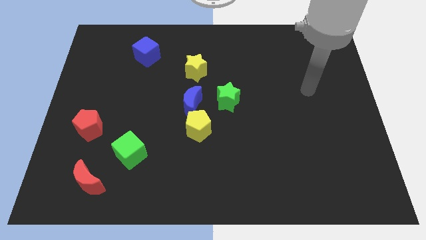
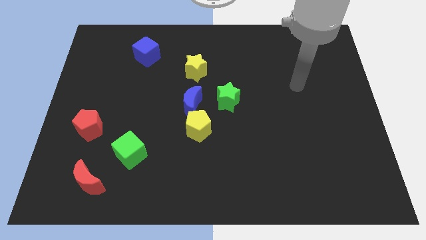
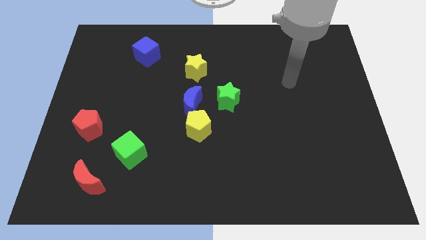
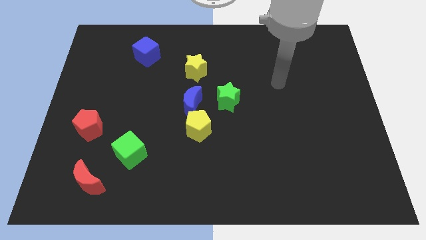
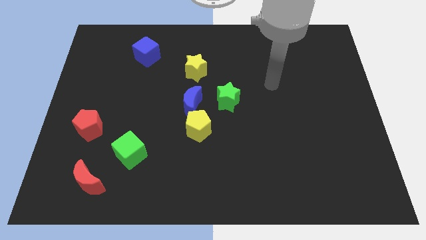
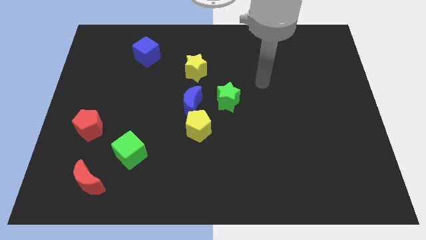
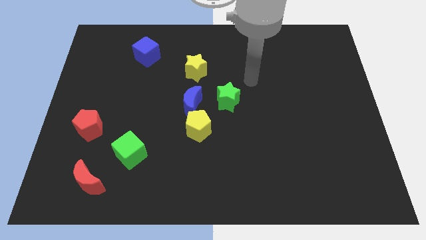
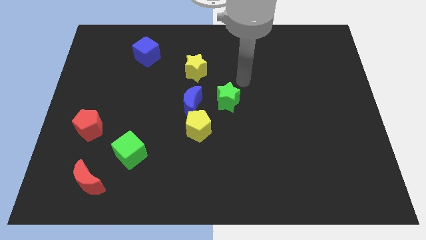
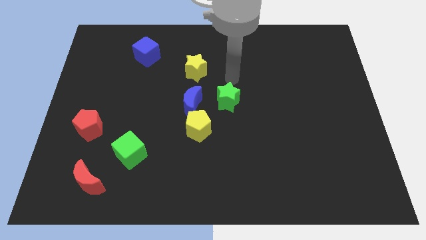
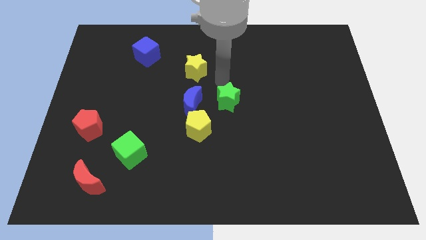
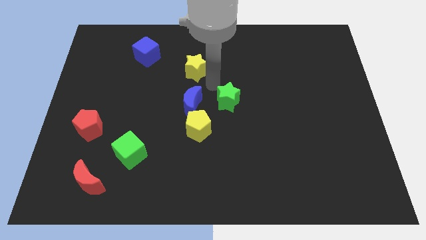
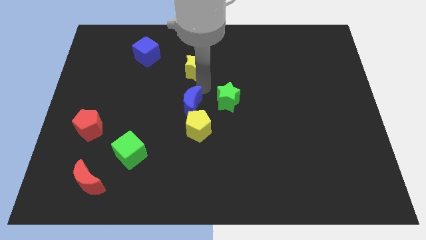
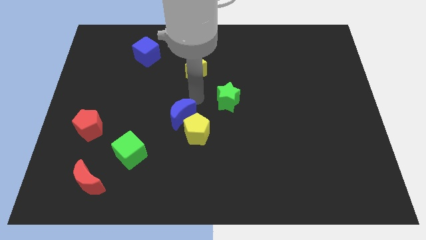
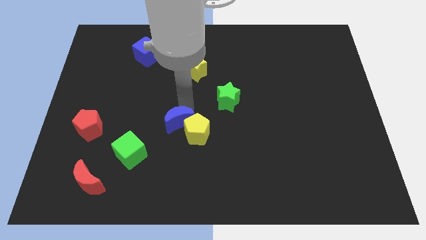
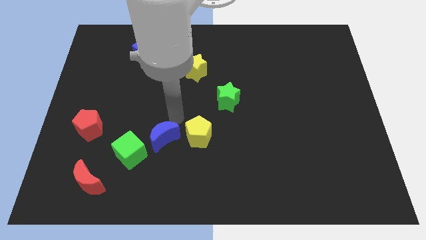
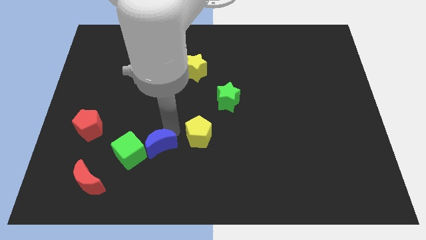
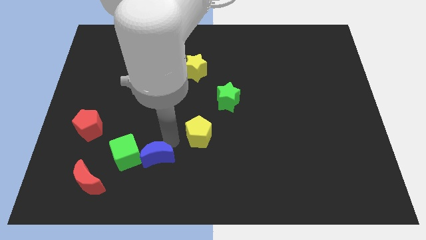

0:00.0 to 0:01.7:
pull the yellow pentagon apart from the blue moon

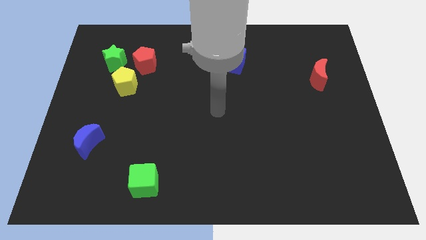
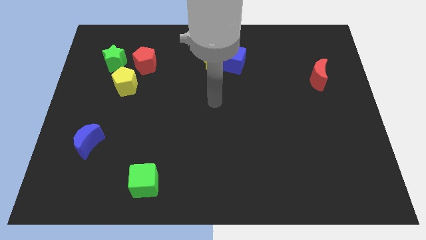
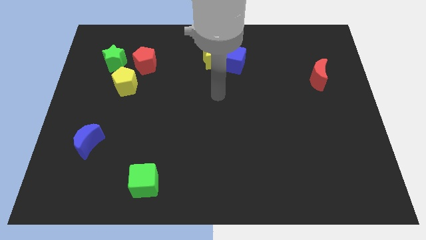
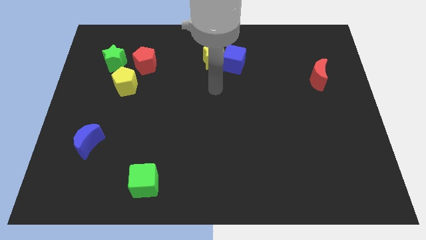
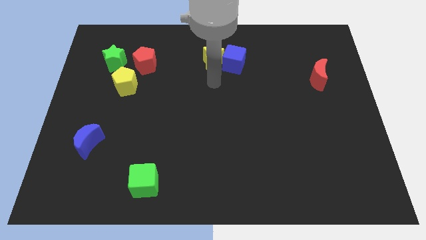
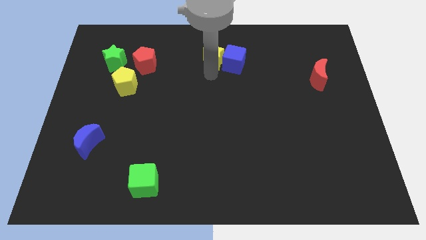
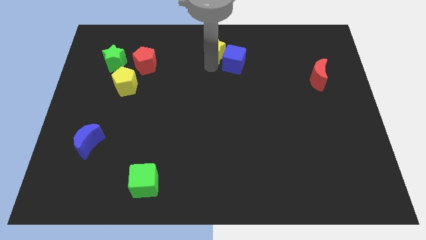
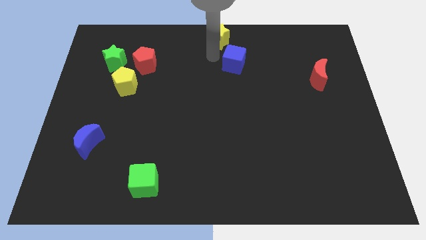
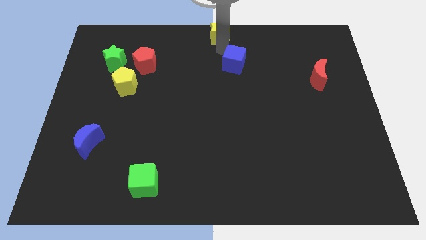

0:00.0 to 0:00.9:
move the blue cube away from the yellow star

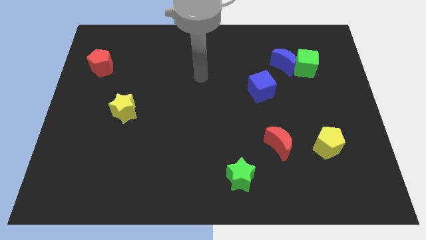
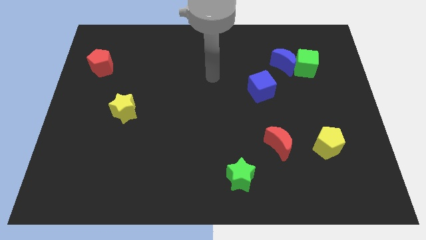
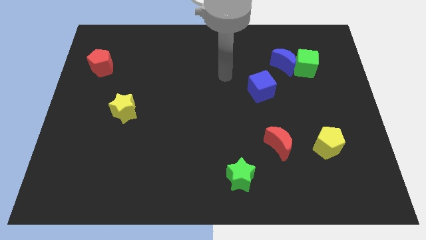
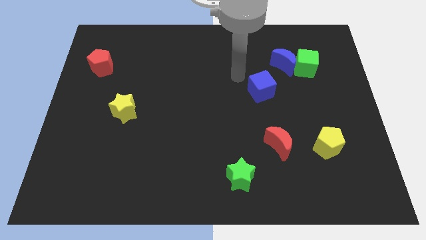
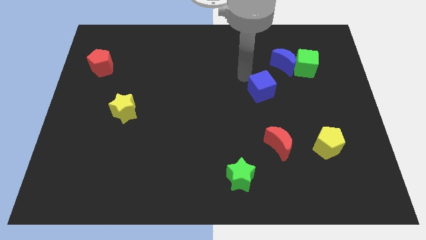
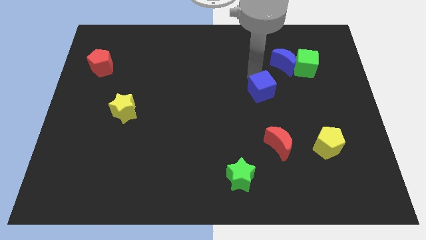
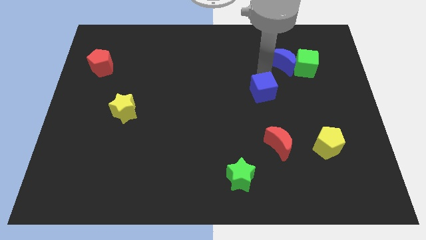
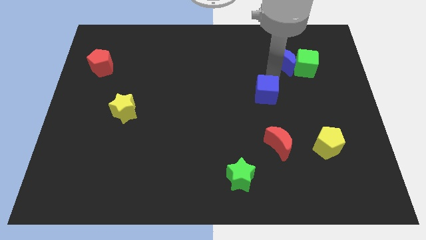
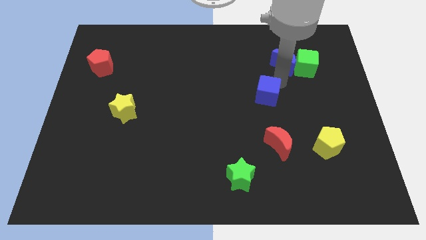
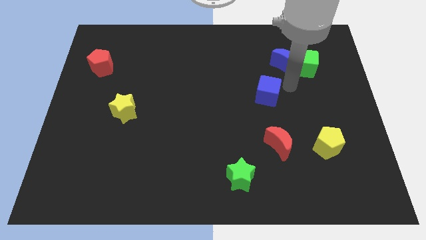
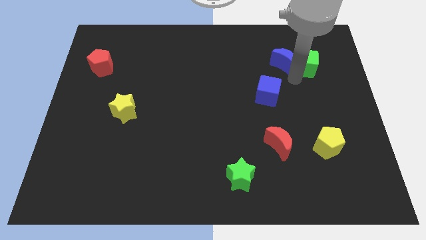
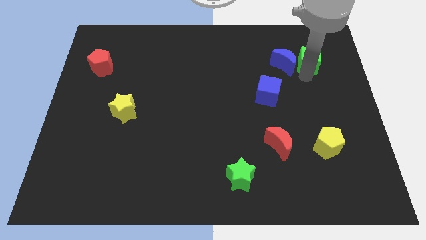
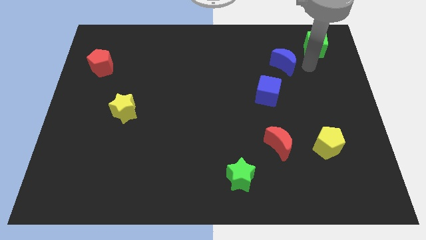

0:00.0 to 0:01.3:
separate the blue moon from the green cube

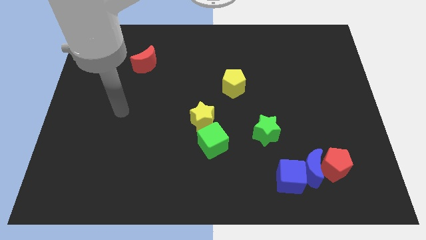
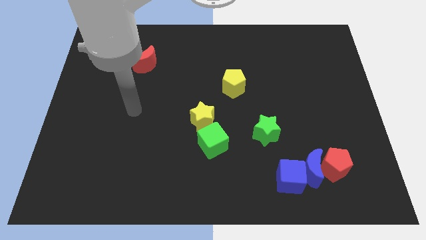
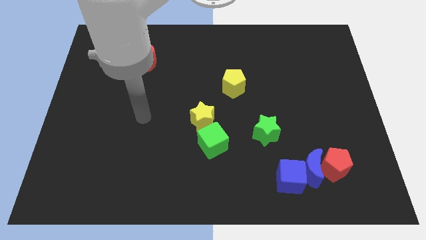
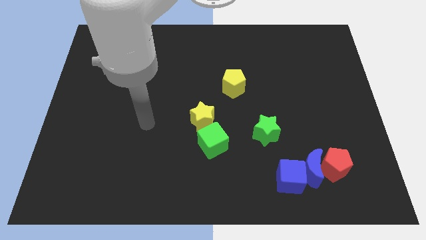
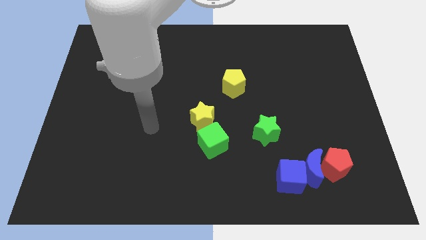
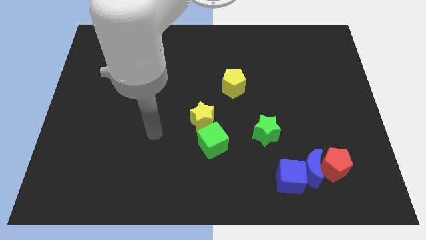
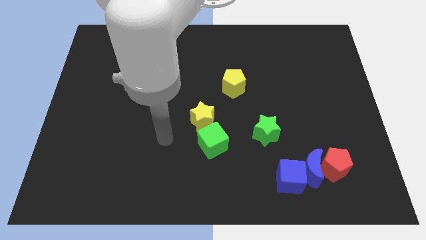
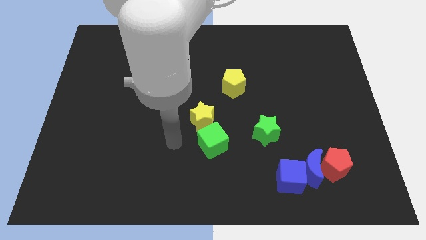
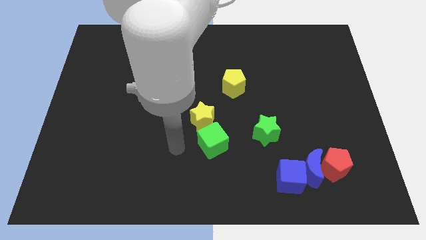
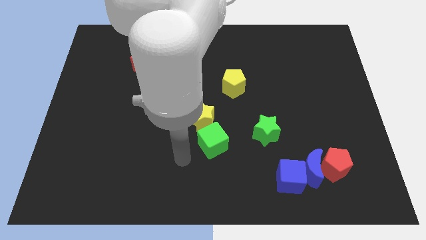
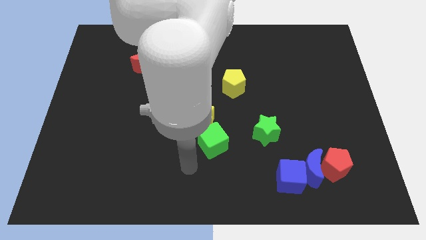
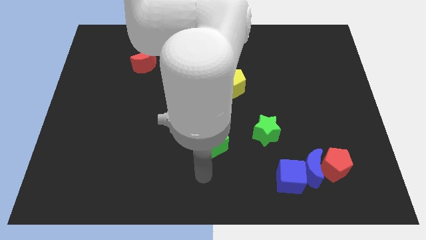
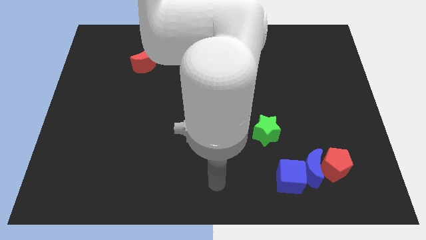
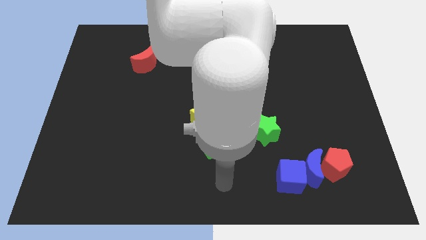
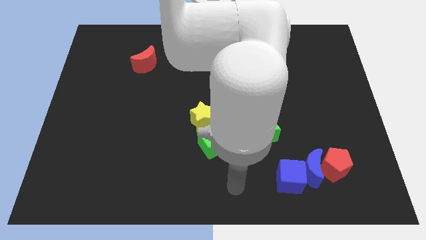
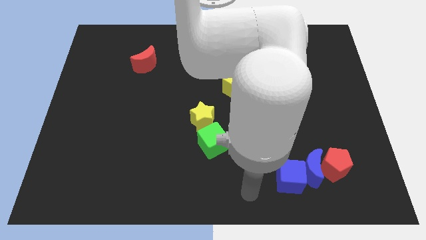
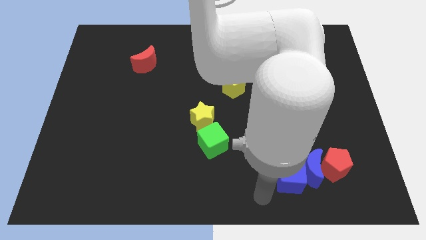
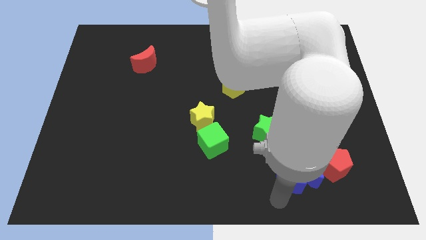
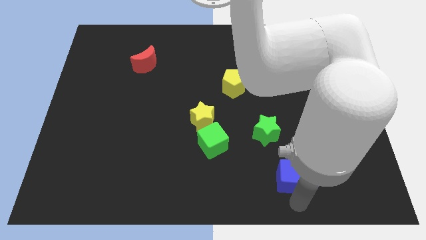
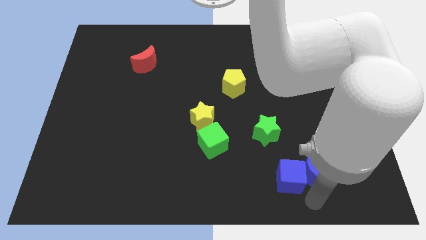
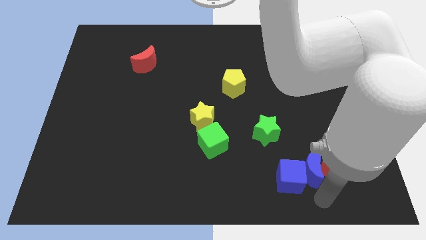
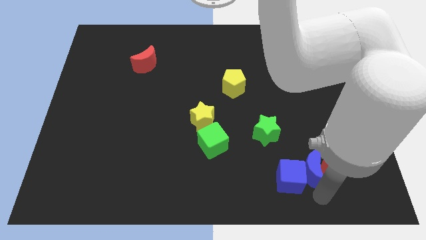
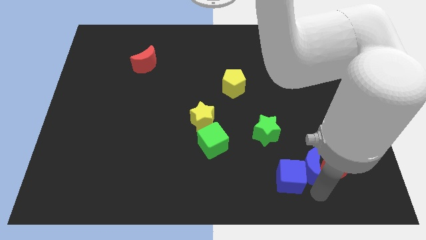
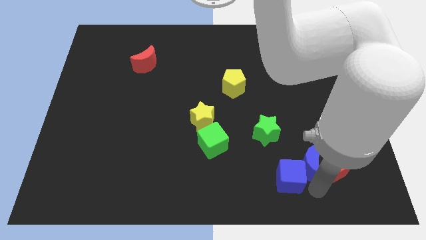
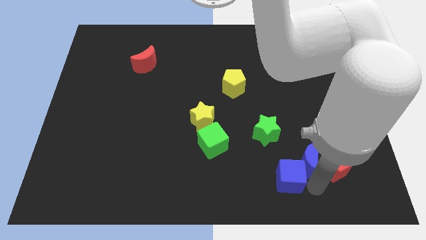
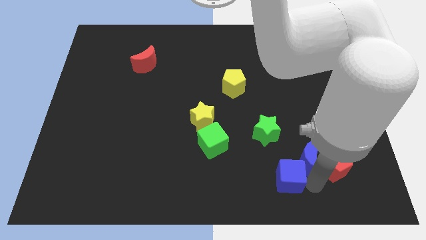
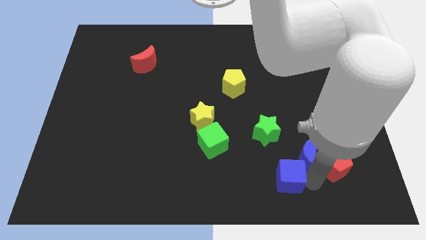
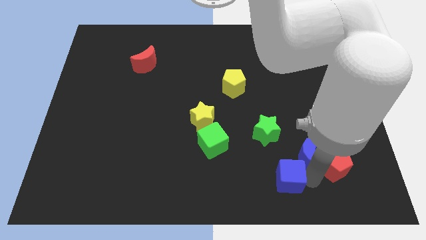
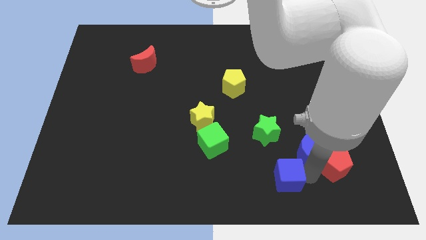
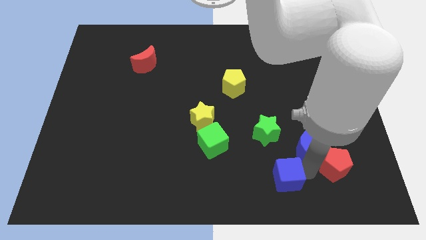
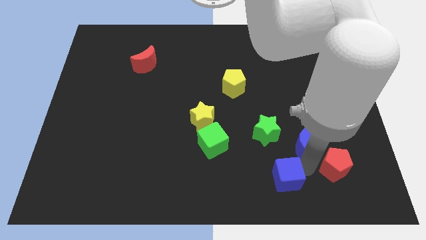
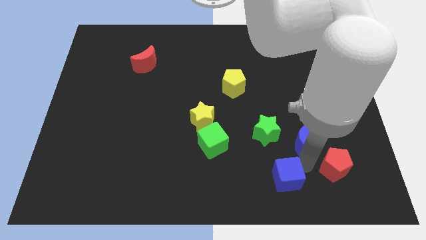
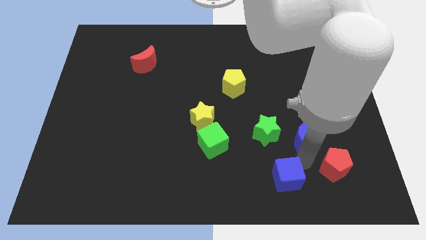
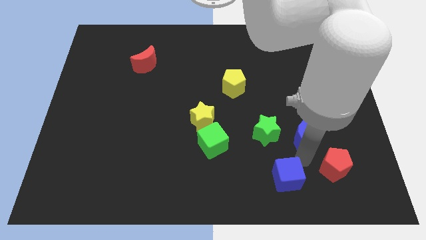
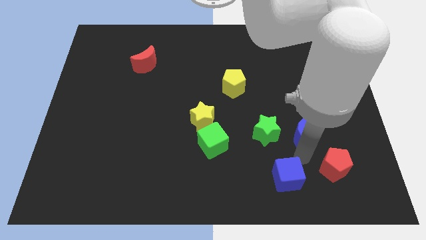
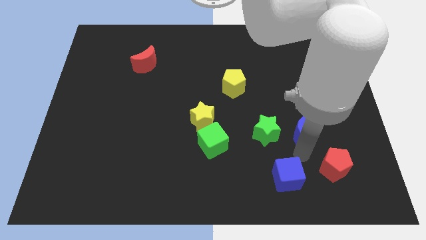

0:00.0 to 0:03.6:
move the blue moon away from the red pentagon and blue cube

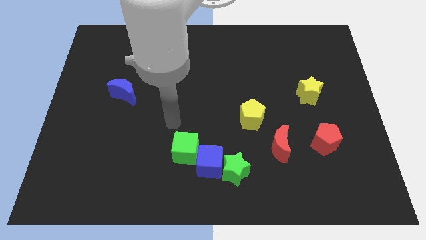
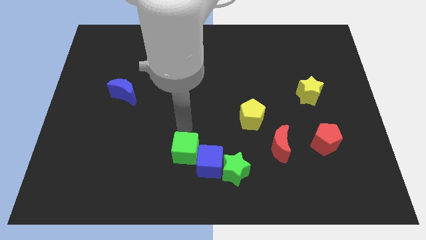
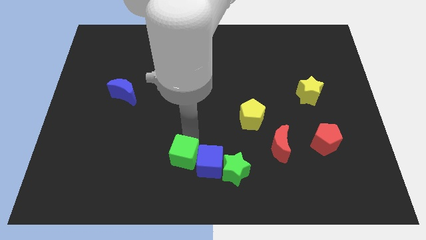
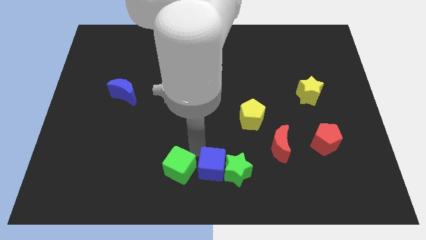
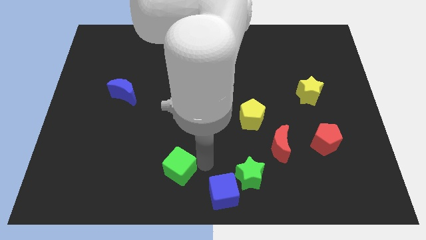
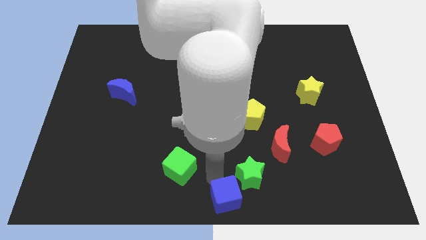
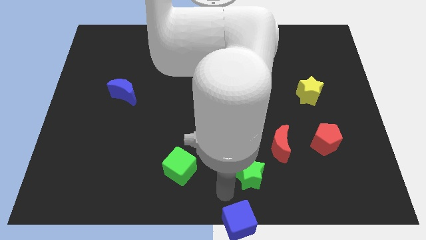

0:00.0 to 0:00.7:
pull the green star apart from the blue cube

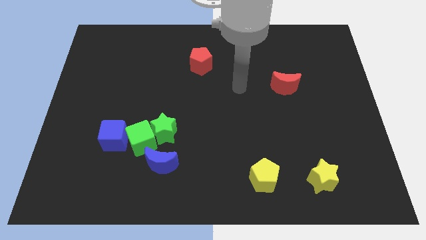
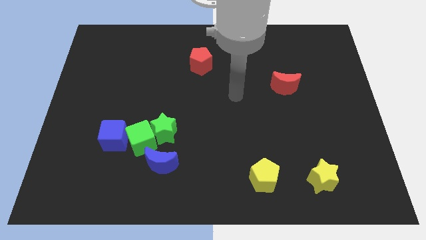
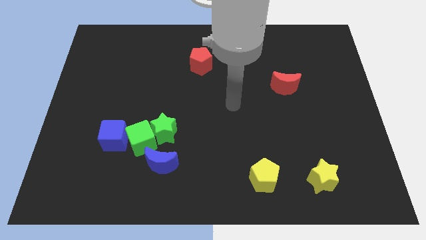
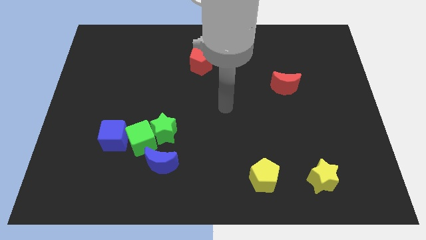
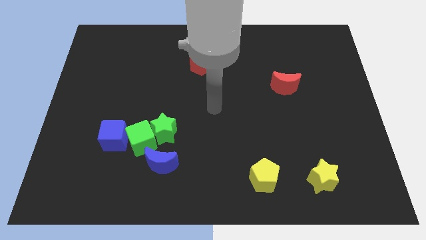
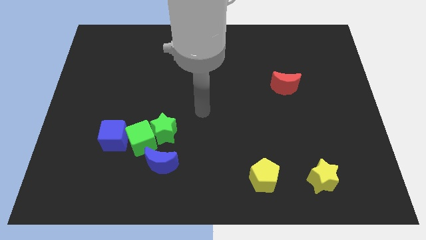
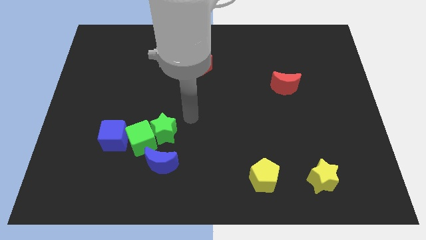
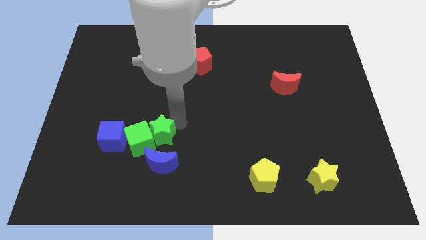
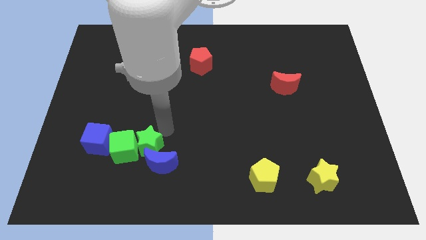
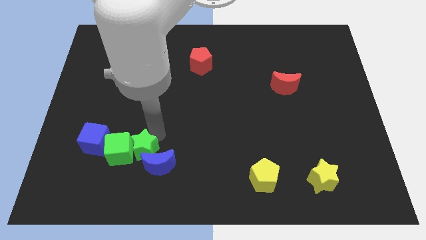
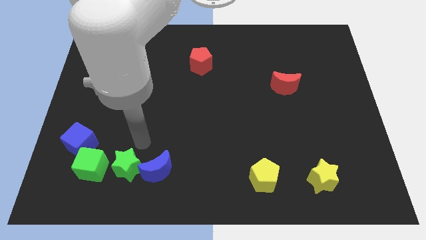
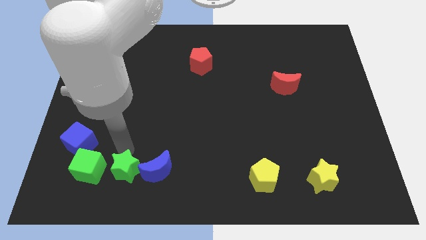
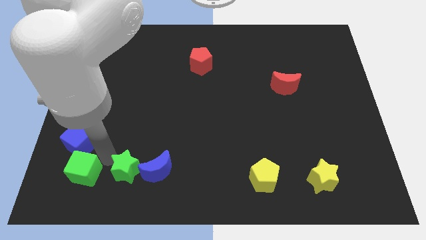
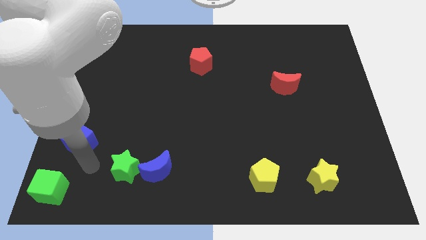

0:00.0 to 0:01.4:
pull the blue cube apart from the green cube
